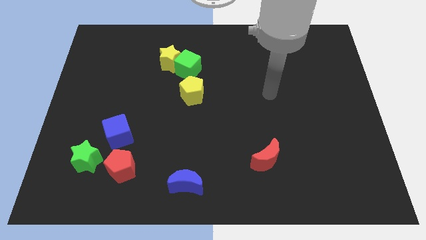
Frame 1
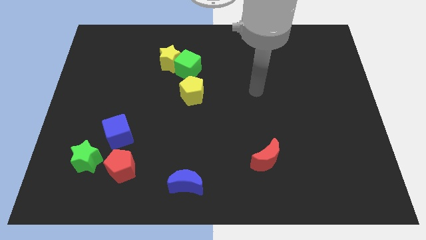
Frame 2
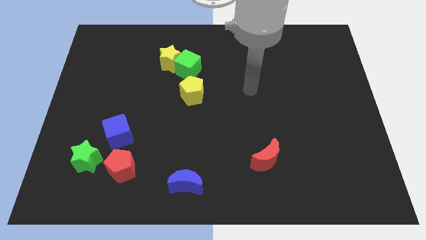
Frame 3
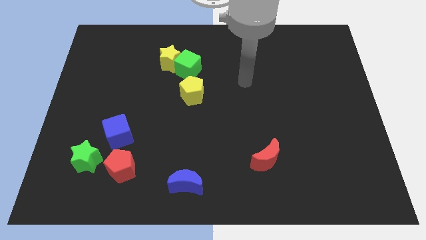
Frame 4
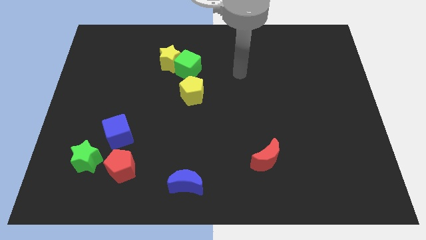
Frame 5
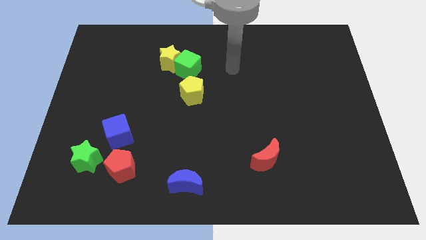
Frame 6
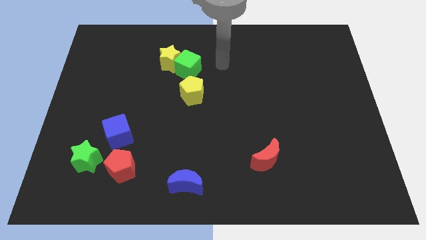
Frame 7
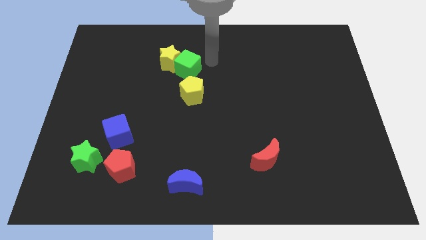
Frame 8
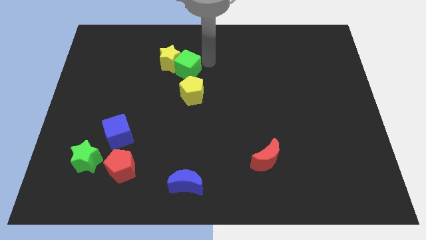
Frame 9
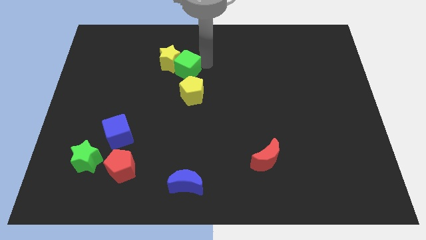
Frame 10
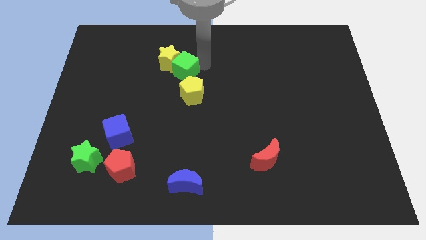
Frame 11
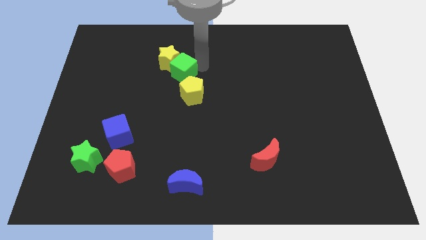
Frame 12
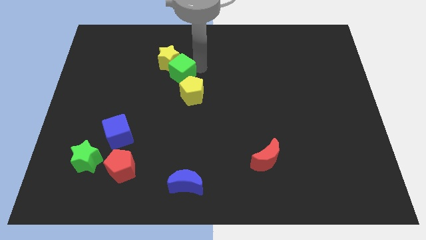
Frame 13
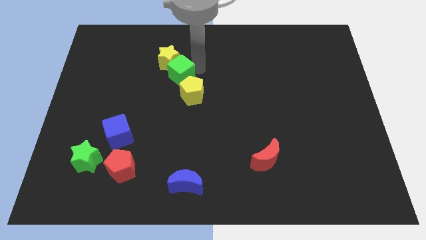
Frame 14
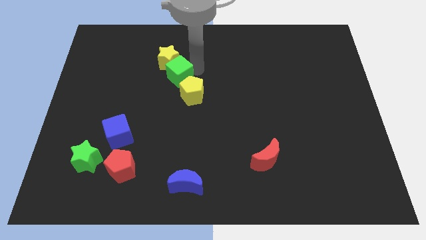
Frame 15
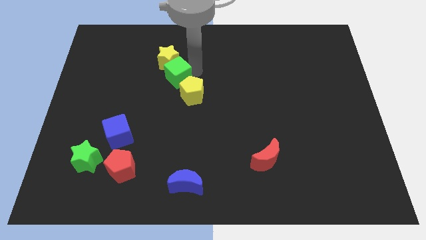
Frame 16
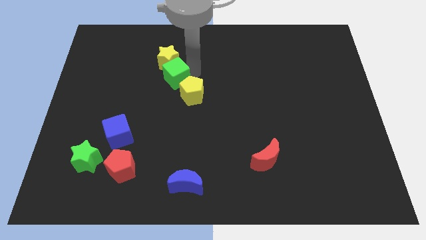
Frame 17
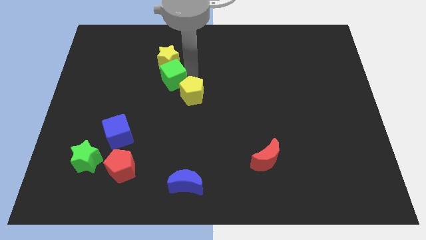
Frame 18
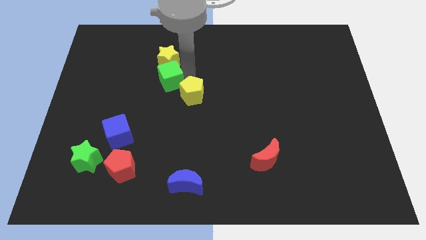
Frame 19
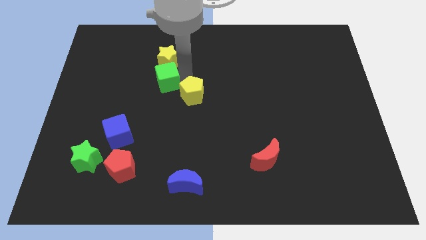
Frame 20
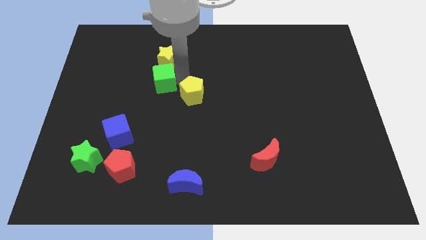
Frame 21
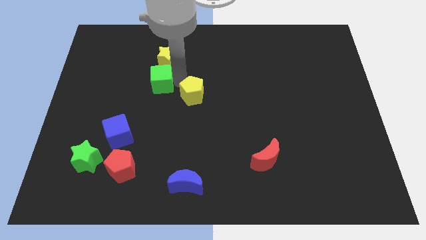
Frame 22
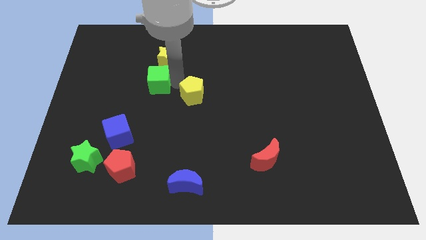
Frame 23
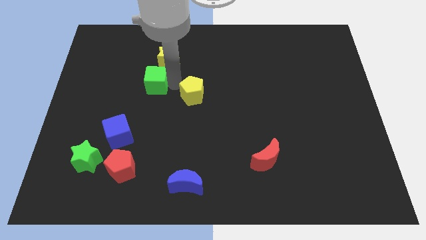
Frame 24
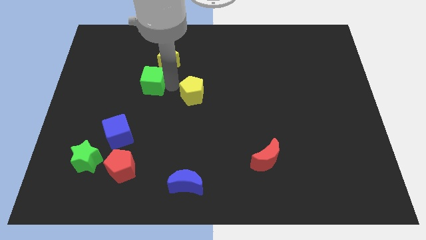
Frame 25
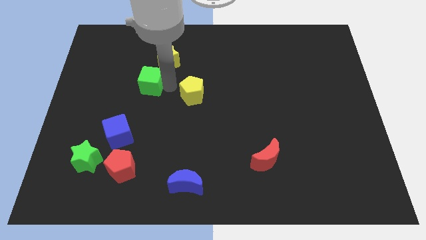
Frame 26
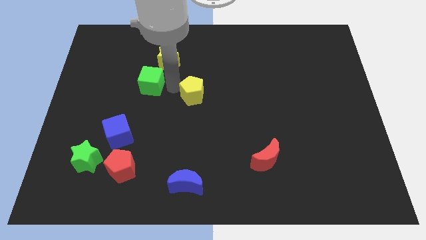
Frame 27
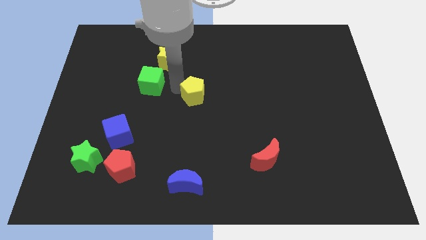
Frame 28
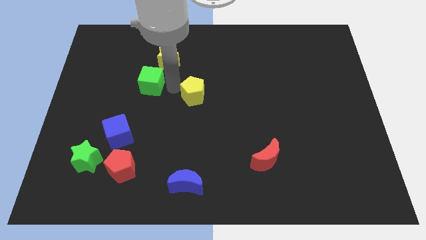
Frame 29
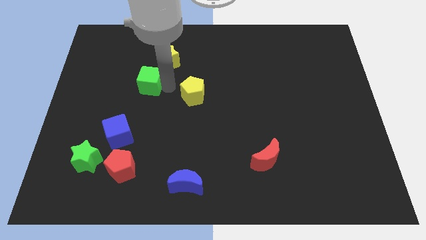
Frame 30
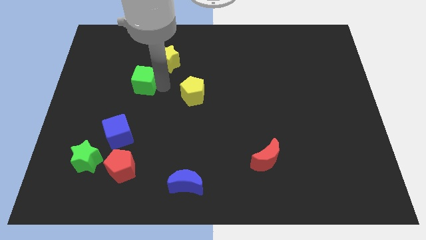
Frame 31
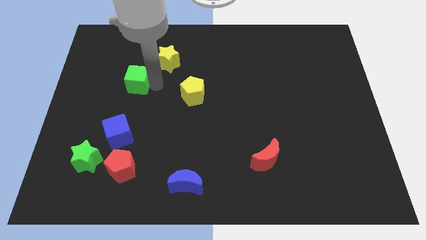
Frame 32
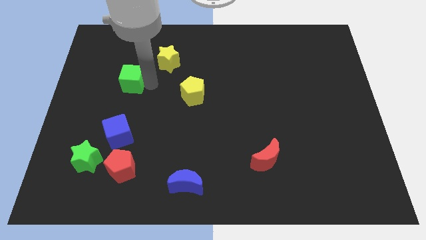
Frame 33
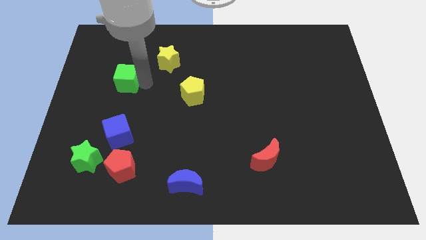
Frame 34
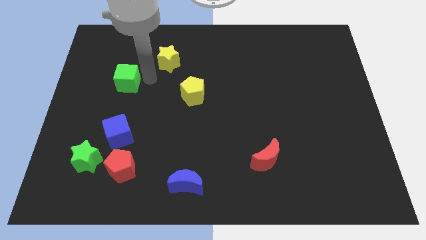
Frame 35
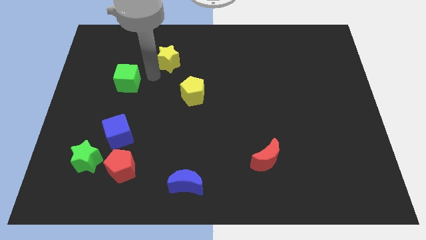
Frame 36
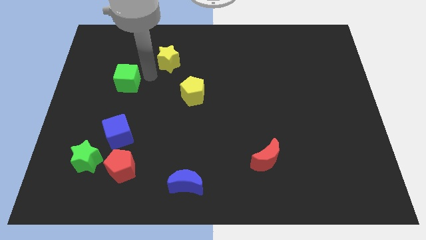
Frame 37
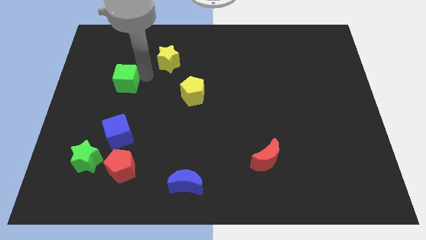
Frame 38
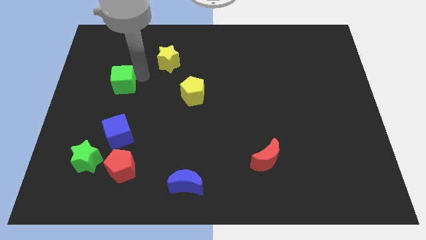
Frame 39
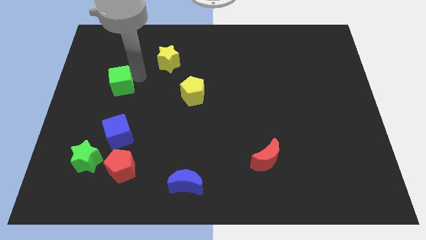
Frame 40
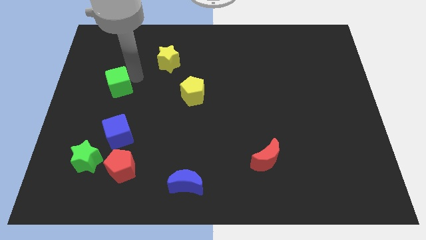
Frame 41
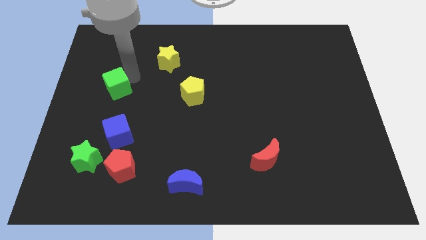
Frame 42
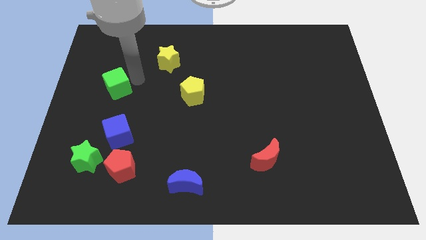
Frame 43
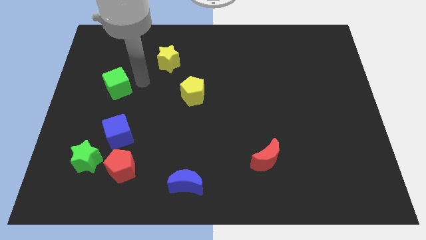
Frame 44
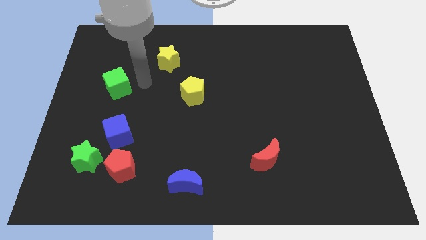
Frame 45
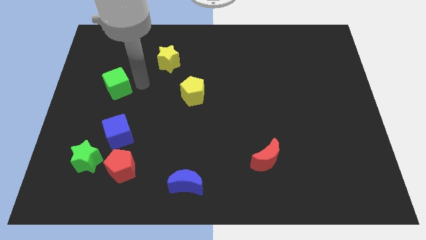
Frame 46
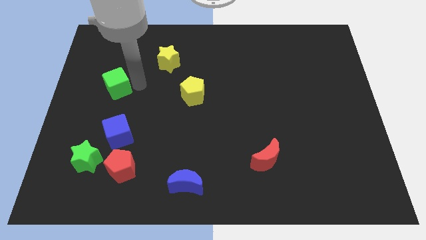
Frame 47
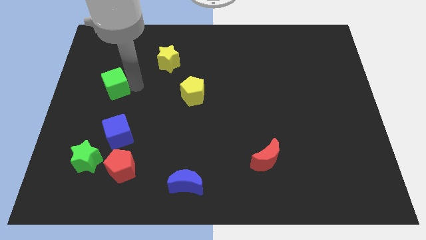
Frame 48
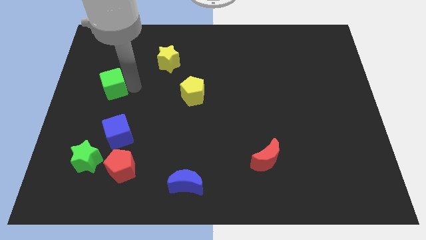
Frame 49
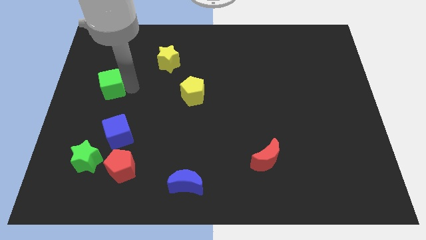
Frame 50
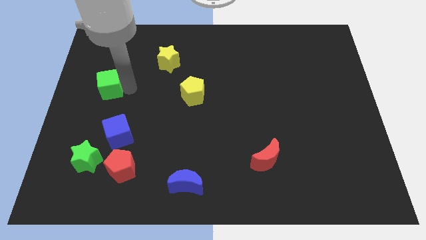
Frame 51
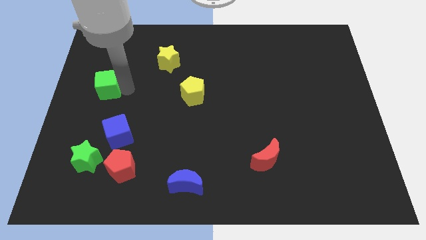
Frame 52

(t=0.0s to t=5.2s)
slide the green cube to the left side

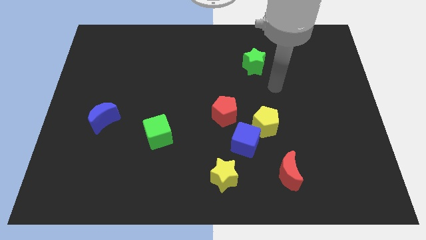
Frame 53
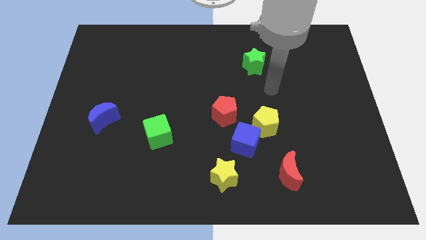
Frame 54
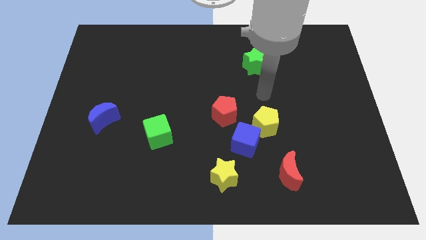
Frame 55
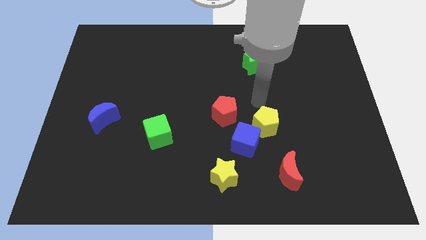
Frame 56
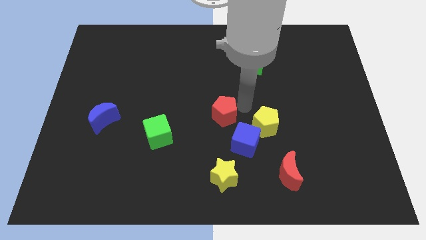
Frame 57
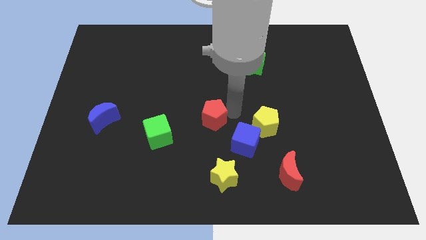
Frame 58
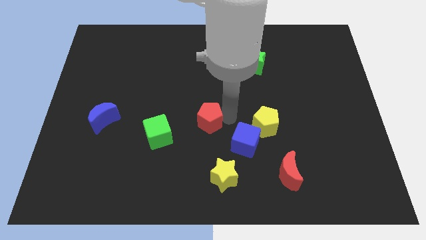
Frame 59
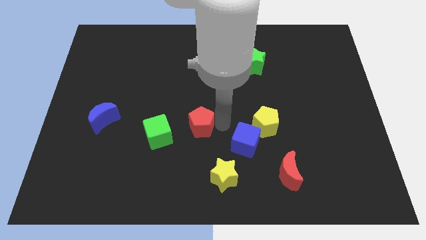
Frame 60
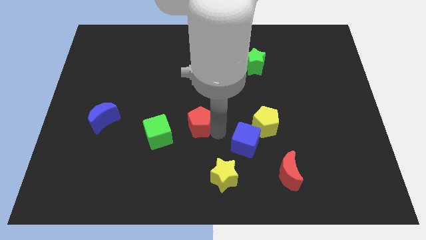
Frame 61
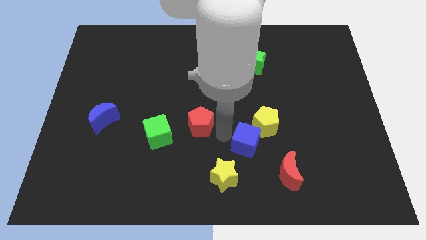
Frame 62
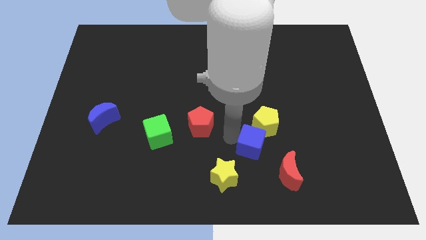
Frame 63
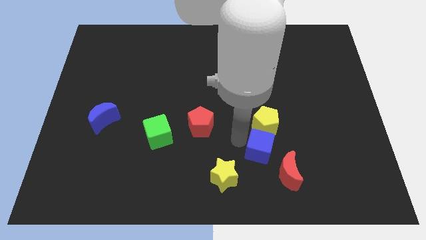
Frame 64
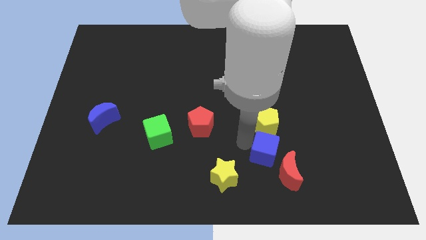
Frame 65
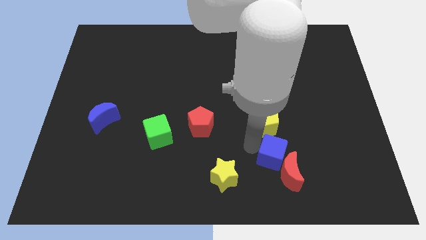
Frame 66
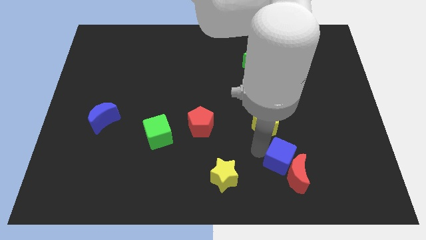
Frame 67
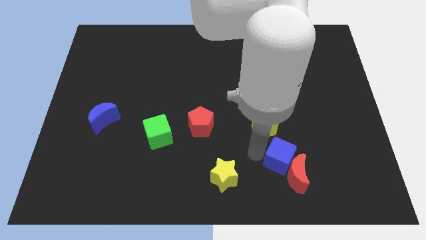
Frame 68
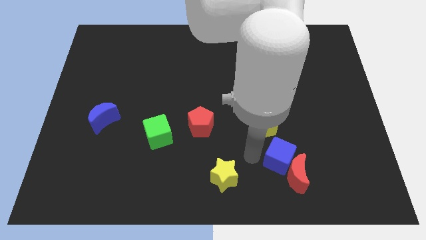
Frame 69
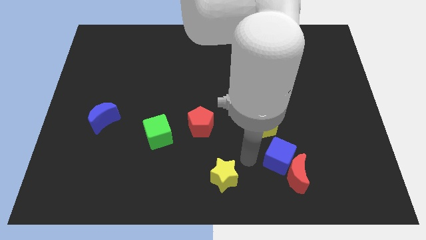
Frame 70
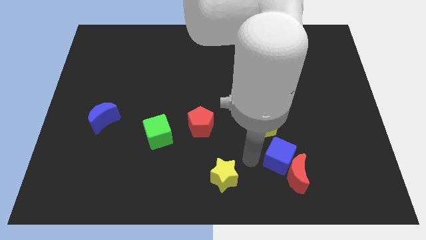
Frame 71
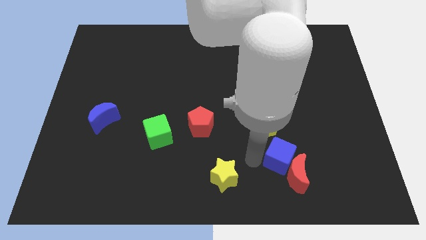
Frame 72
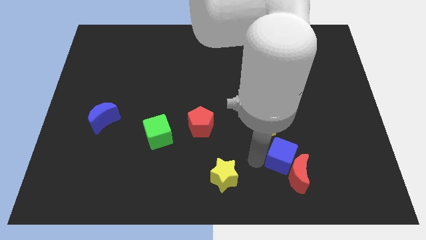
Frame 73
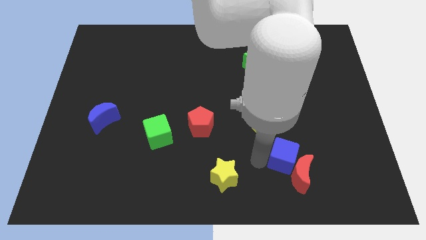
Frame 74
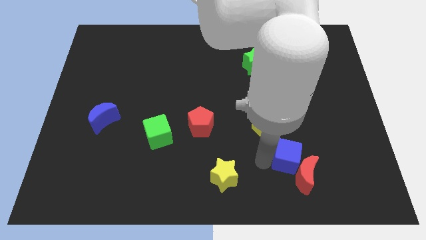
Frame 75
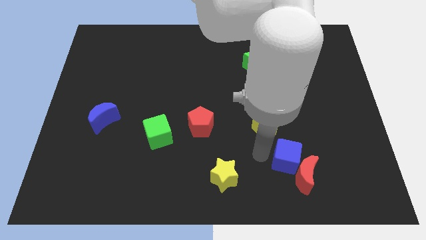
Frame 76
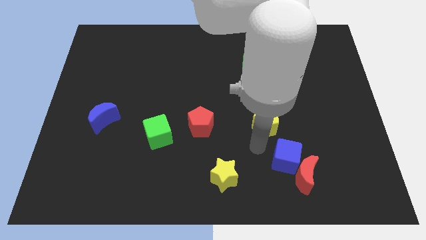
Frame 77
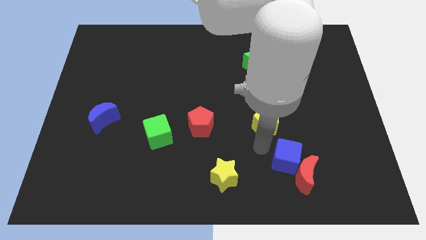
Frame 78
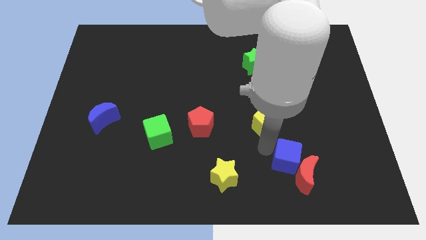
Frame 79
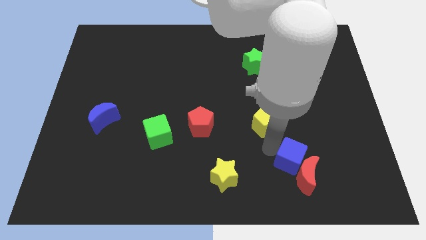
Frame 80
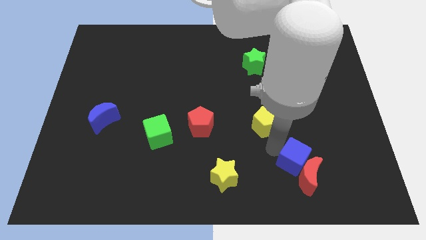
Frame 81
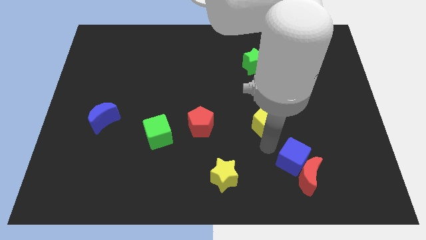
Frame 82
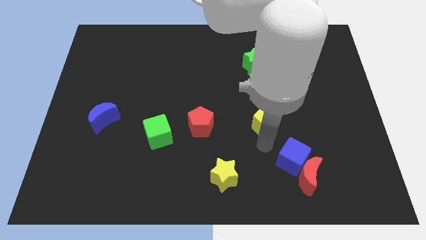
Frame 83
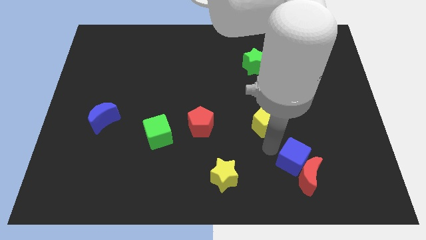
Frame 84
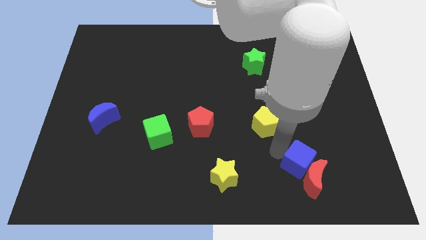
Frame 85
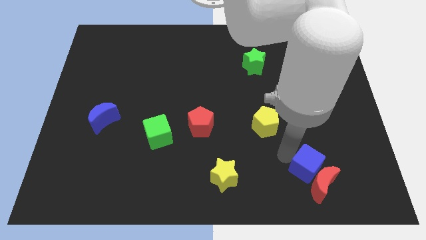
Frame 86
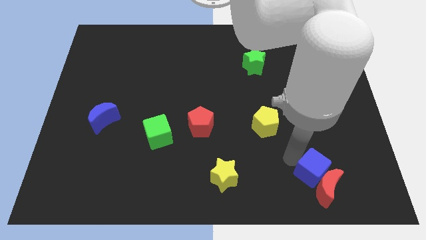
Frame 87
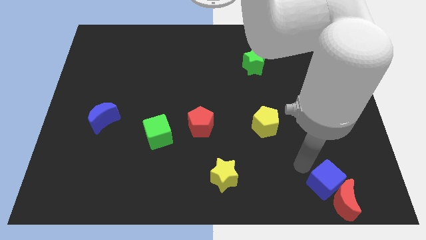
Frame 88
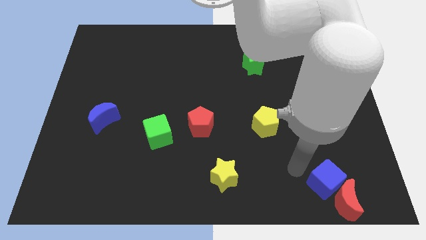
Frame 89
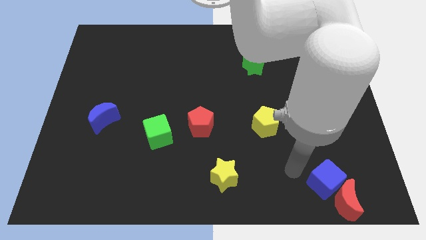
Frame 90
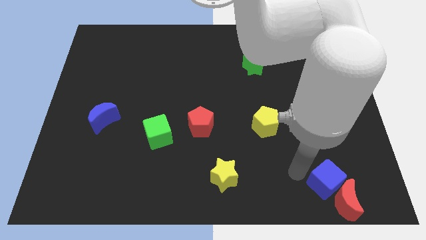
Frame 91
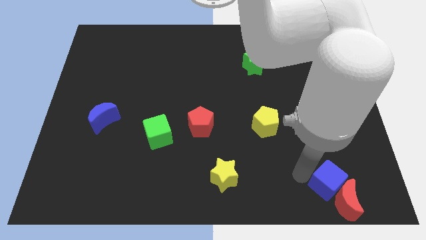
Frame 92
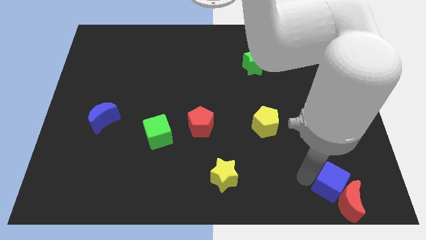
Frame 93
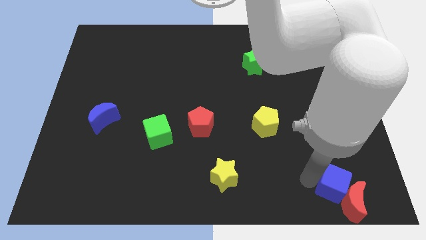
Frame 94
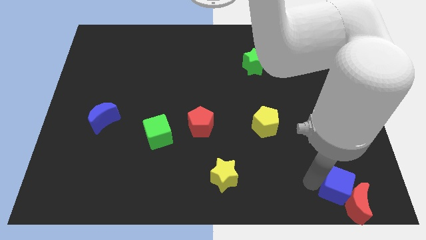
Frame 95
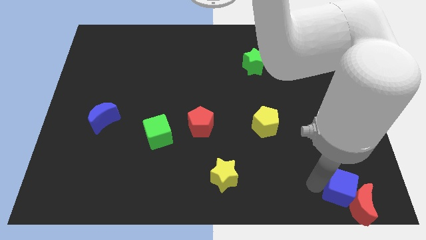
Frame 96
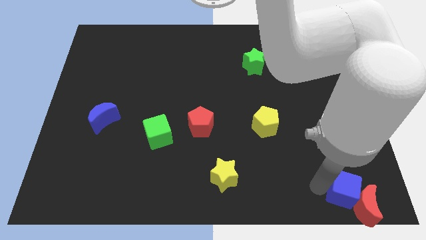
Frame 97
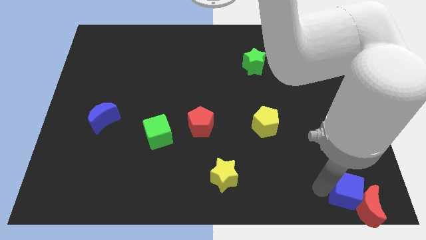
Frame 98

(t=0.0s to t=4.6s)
slide the blue cube to the lower right corner
